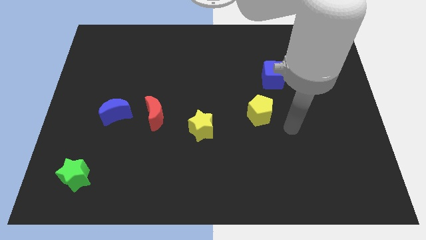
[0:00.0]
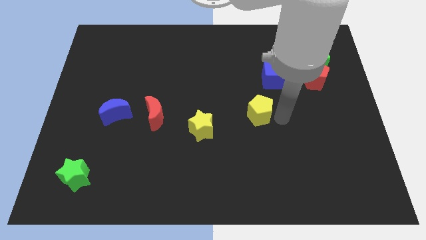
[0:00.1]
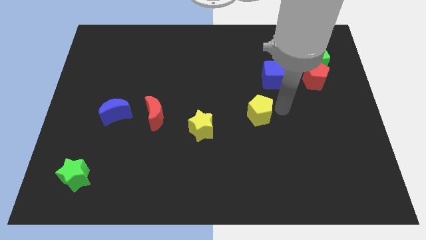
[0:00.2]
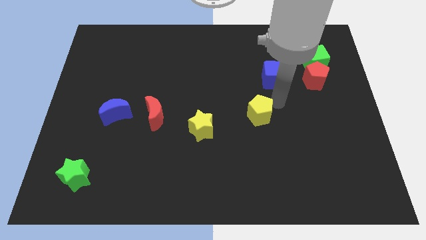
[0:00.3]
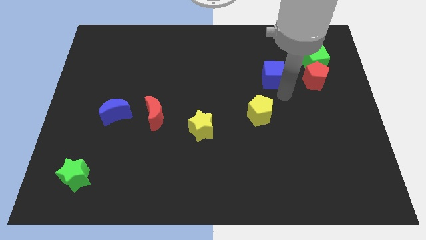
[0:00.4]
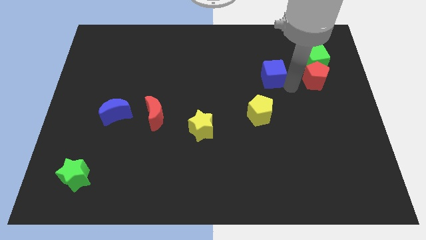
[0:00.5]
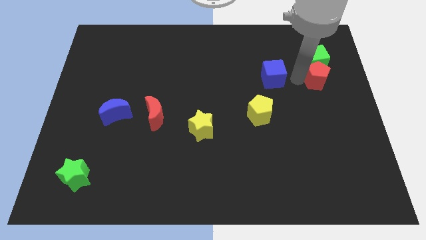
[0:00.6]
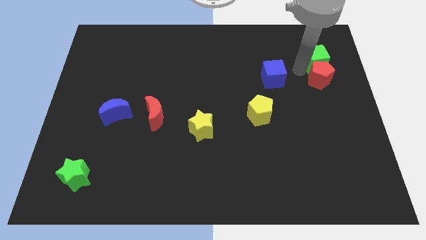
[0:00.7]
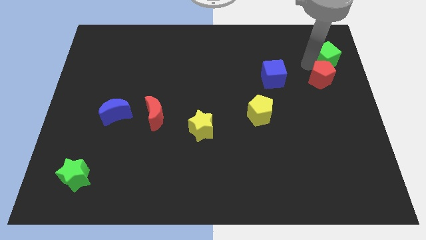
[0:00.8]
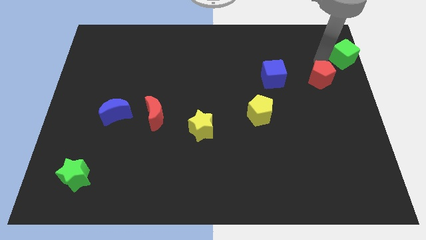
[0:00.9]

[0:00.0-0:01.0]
pull the red pentagon apart from the green cube

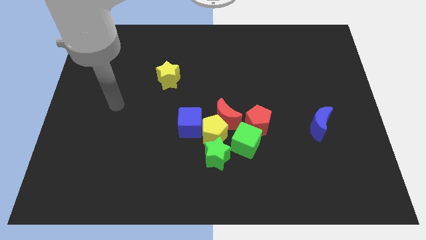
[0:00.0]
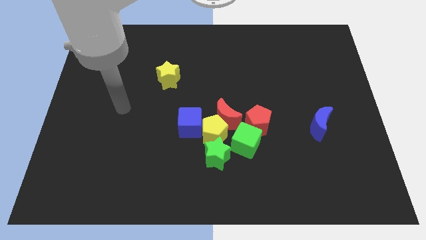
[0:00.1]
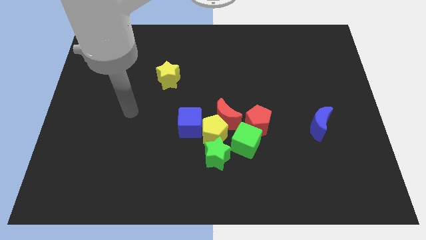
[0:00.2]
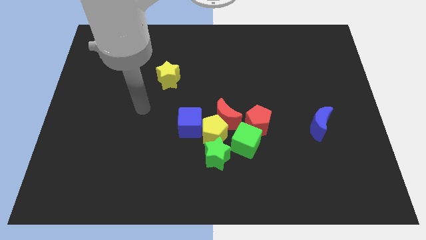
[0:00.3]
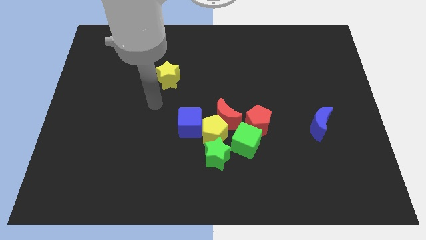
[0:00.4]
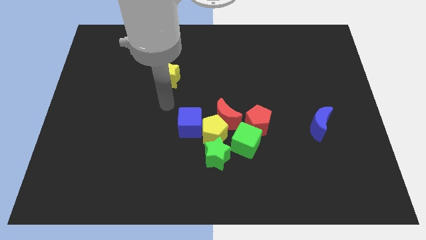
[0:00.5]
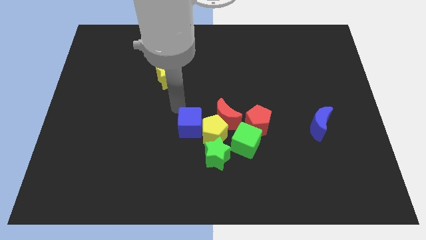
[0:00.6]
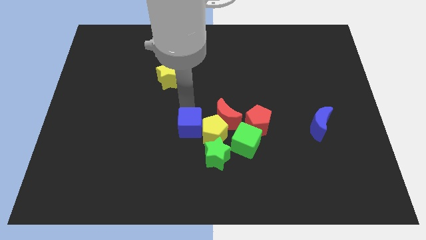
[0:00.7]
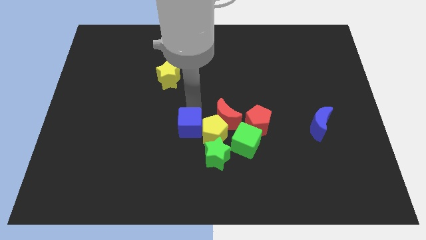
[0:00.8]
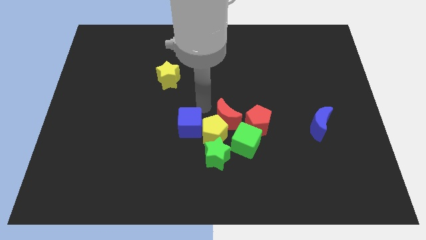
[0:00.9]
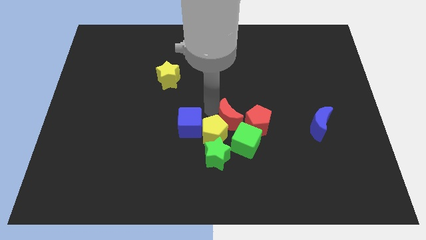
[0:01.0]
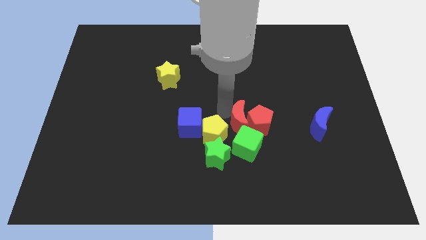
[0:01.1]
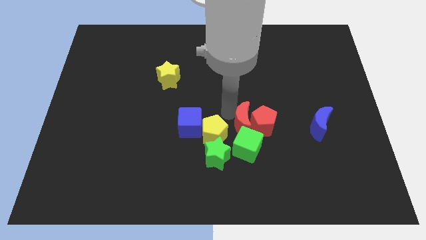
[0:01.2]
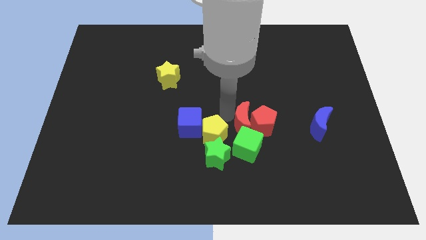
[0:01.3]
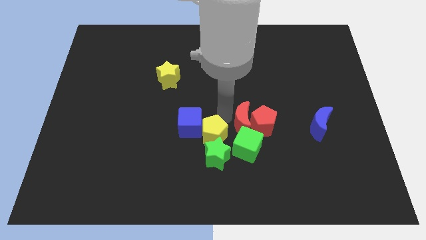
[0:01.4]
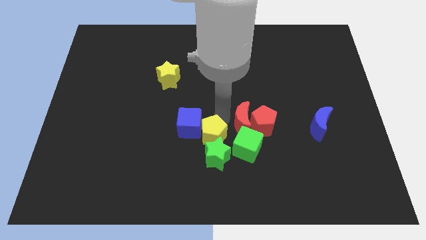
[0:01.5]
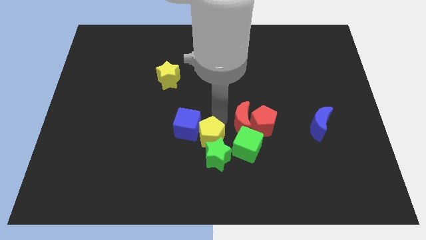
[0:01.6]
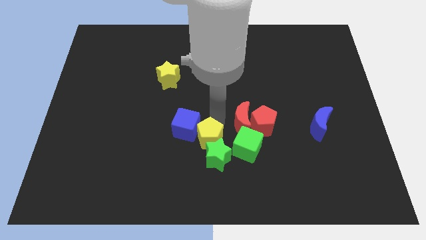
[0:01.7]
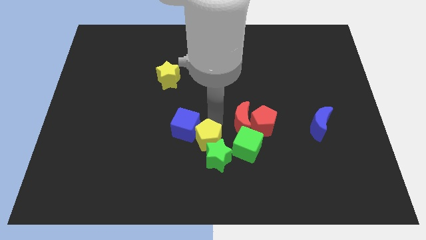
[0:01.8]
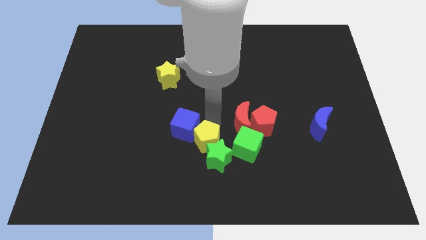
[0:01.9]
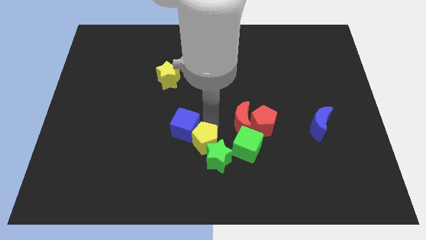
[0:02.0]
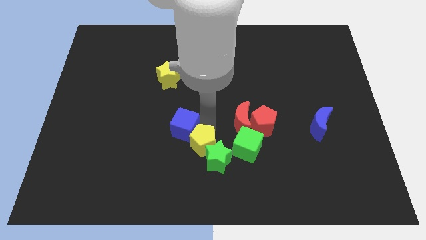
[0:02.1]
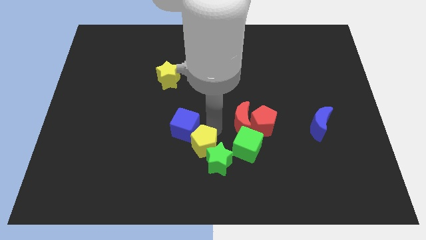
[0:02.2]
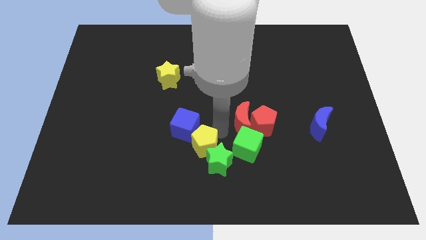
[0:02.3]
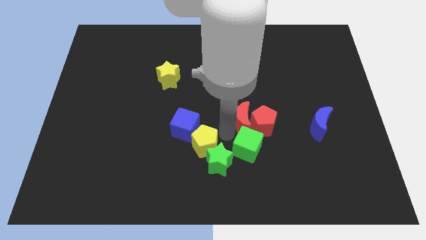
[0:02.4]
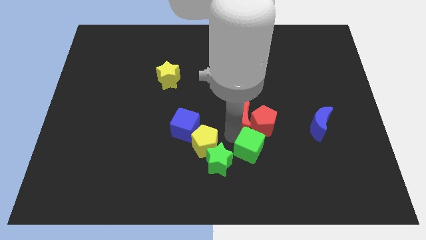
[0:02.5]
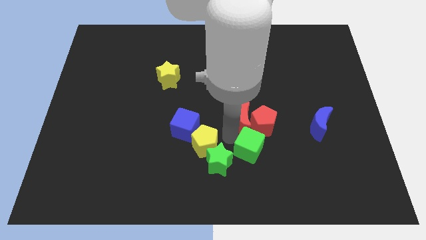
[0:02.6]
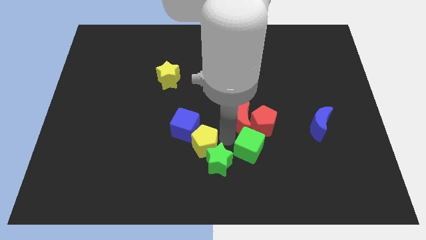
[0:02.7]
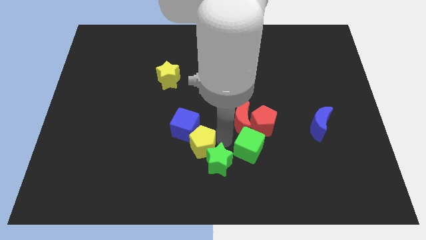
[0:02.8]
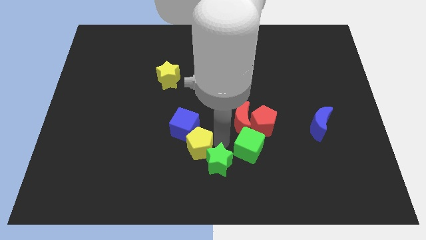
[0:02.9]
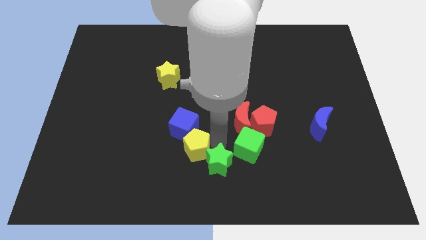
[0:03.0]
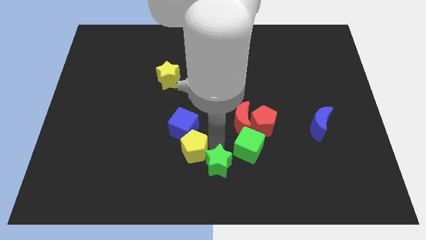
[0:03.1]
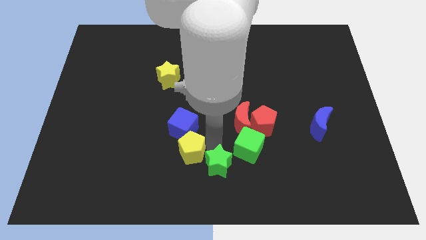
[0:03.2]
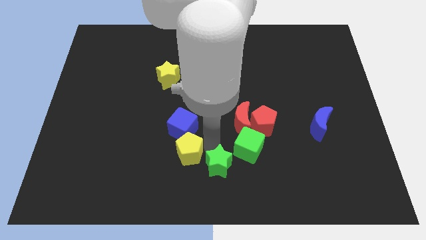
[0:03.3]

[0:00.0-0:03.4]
move the yellow pentagon away from the clump

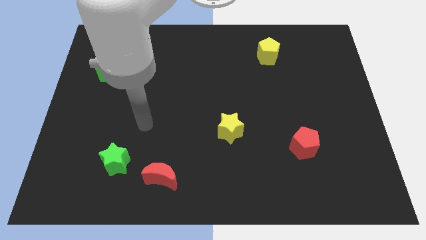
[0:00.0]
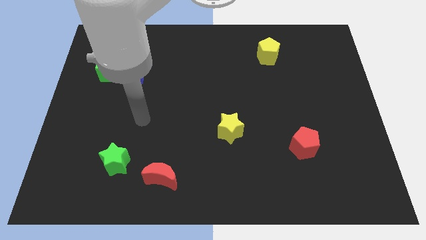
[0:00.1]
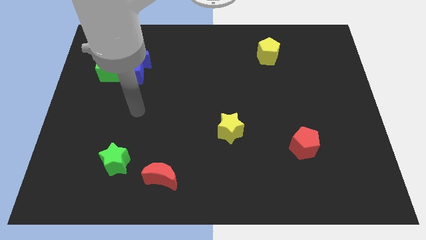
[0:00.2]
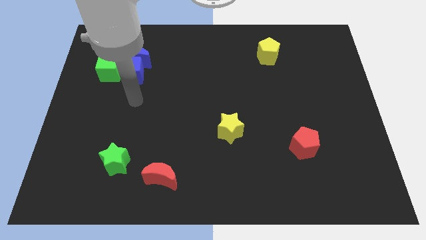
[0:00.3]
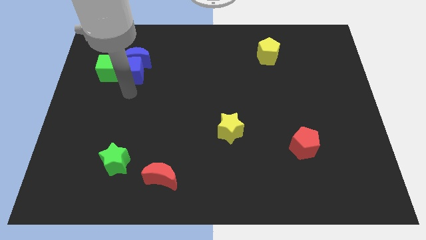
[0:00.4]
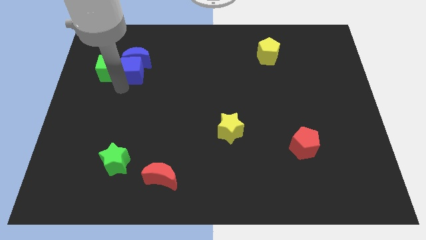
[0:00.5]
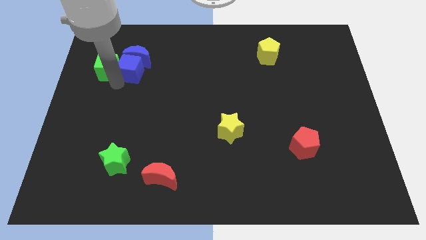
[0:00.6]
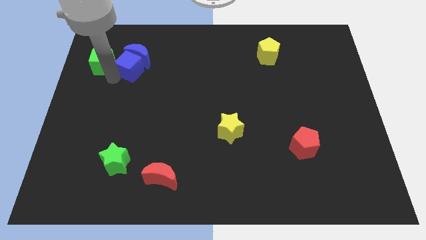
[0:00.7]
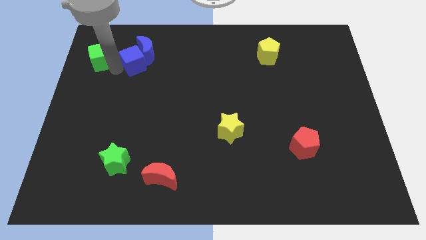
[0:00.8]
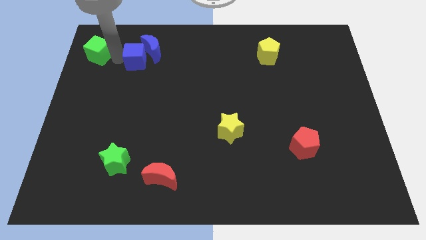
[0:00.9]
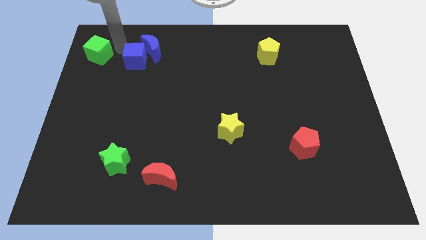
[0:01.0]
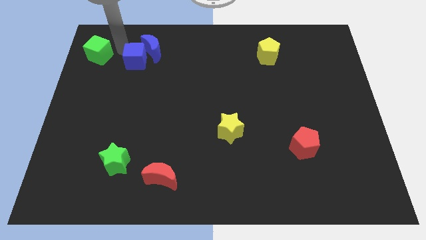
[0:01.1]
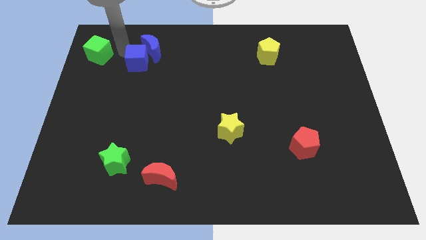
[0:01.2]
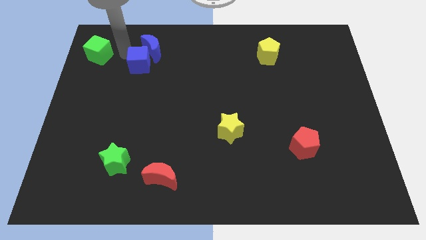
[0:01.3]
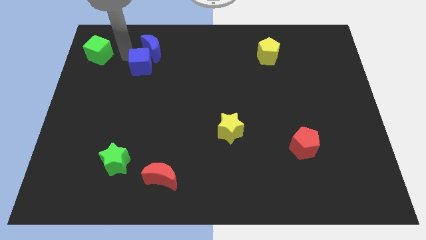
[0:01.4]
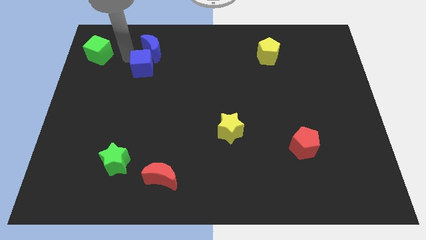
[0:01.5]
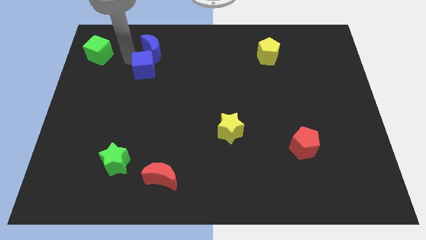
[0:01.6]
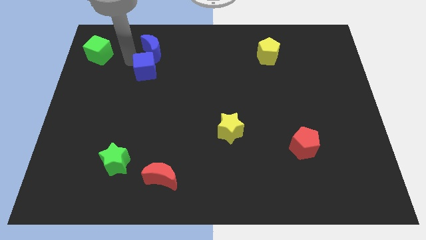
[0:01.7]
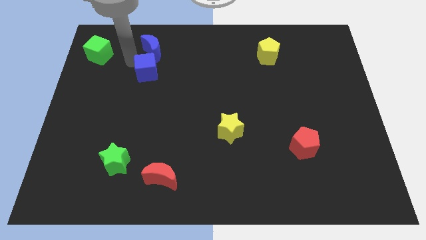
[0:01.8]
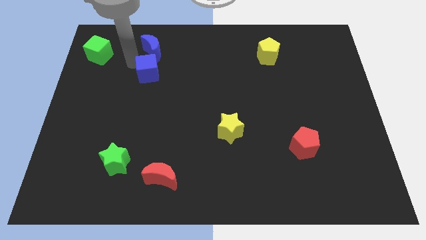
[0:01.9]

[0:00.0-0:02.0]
move the blue cube away from the blue moon and green cube

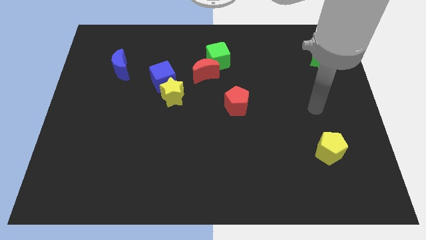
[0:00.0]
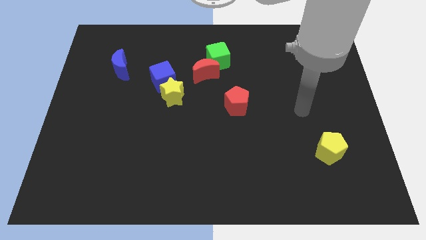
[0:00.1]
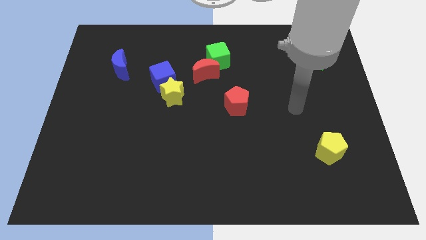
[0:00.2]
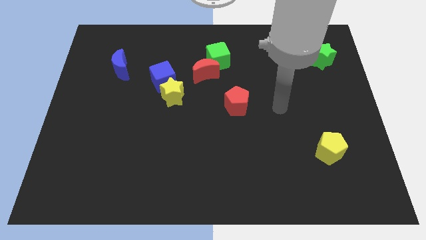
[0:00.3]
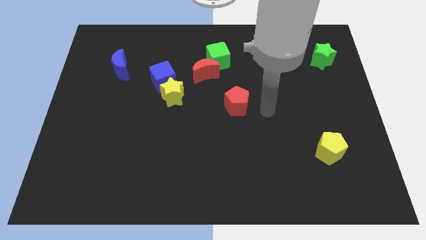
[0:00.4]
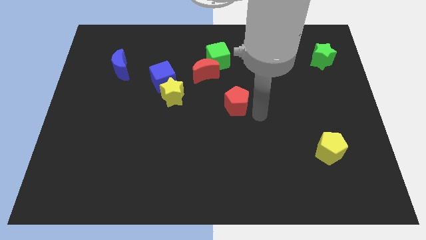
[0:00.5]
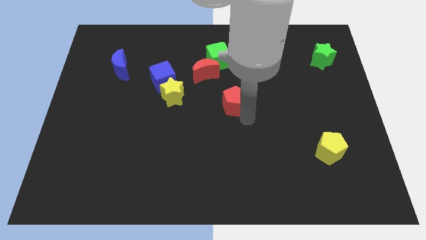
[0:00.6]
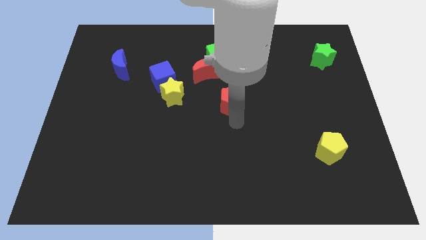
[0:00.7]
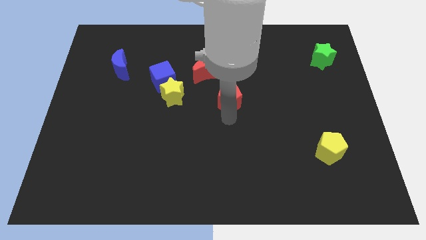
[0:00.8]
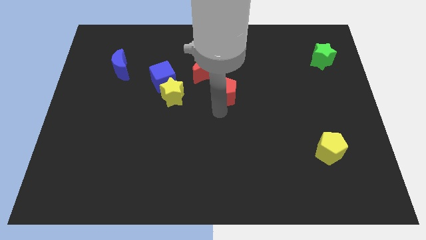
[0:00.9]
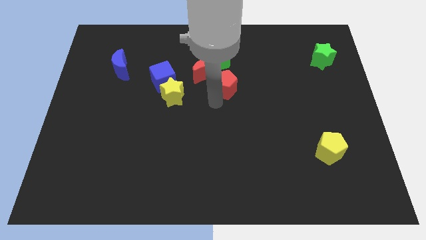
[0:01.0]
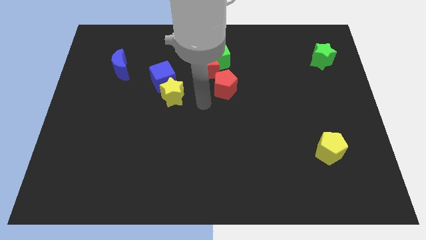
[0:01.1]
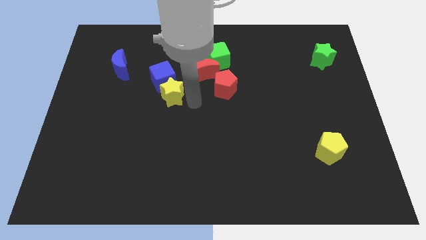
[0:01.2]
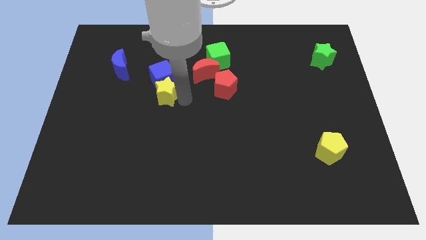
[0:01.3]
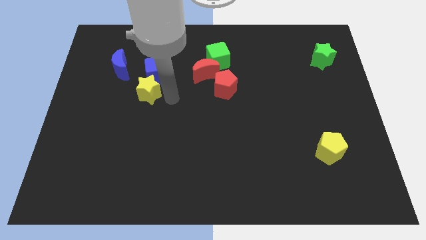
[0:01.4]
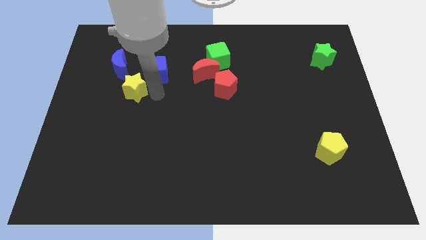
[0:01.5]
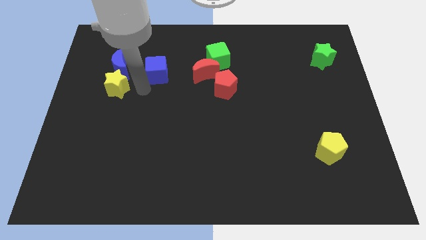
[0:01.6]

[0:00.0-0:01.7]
move the blue cube away from the yellow star

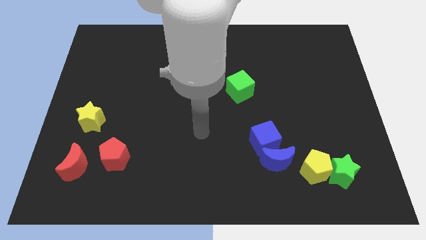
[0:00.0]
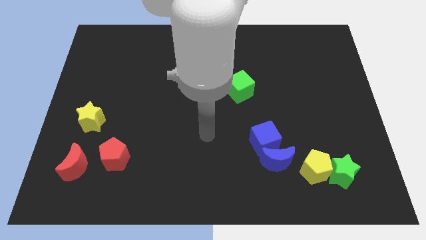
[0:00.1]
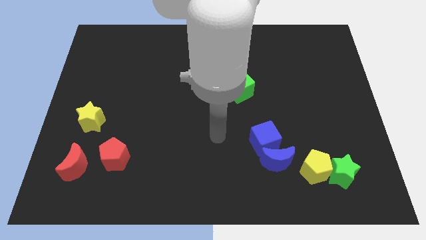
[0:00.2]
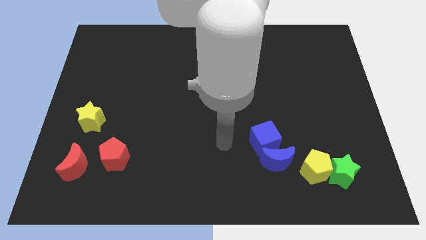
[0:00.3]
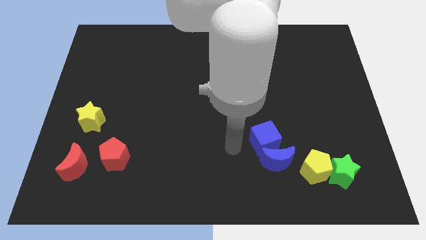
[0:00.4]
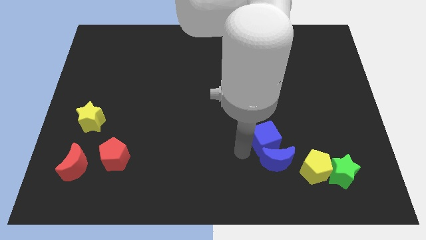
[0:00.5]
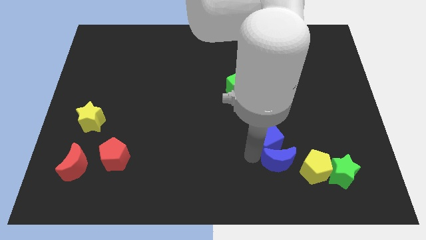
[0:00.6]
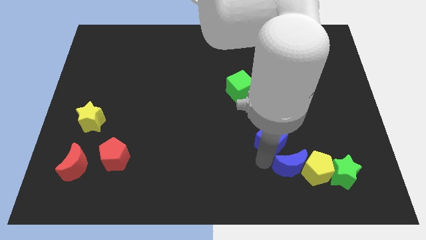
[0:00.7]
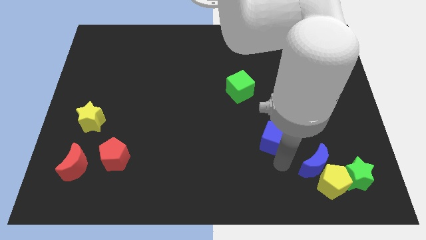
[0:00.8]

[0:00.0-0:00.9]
separate the blue cube from the blue moon

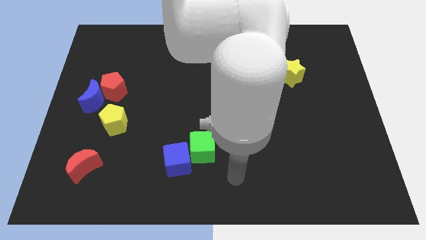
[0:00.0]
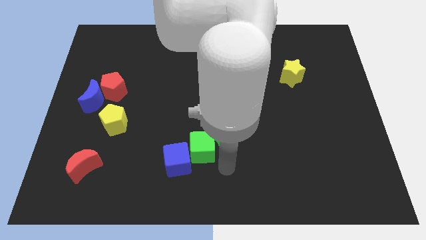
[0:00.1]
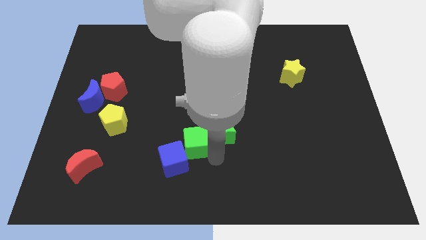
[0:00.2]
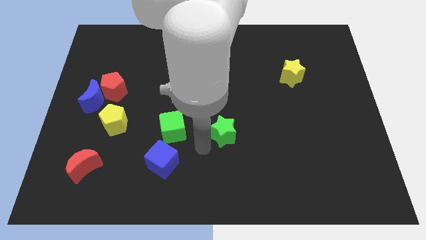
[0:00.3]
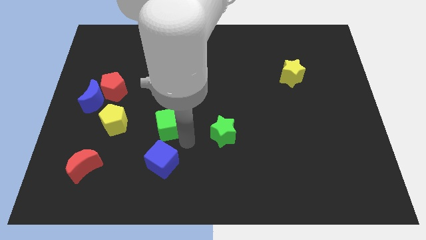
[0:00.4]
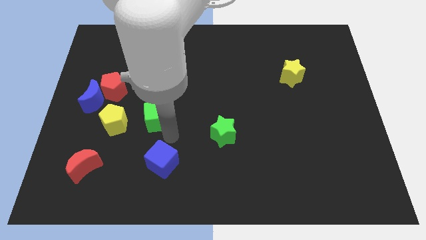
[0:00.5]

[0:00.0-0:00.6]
separate the blue cube from the green cube
